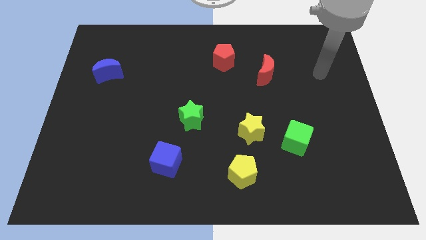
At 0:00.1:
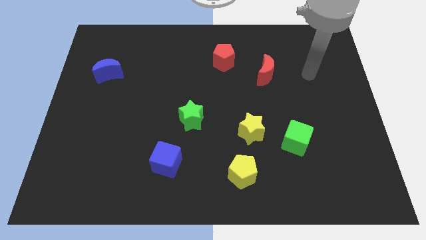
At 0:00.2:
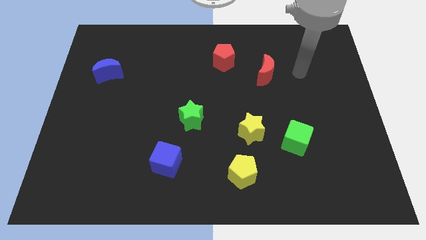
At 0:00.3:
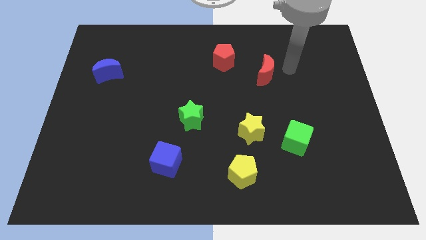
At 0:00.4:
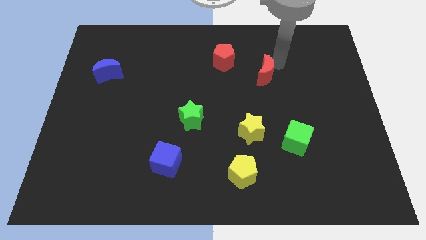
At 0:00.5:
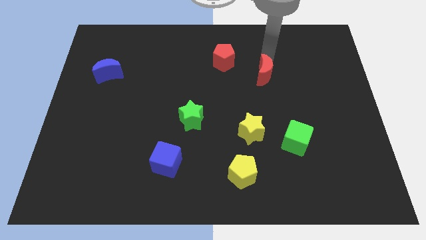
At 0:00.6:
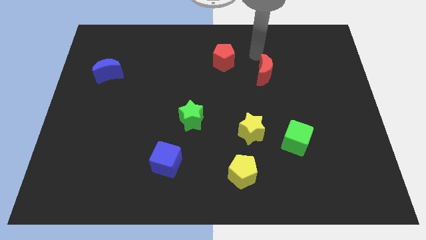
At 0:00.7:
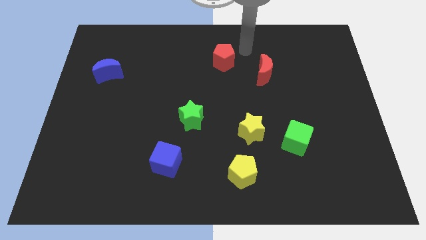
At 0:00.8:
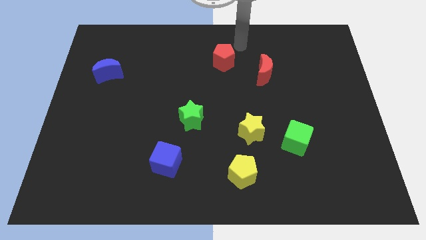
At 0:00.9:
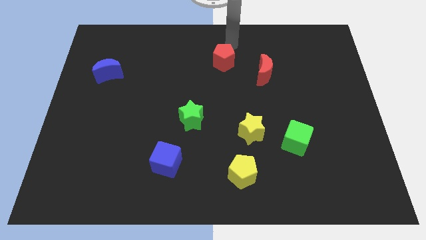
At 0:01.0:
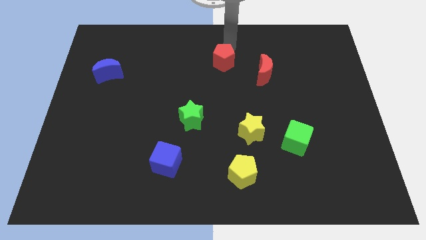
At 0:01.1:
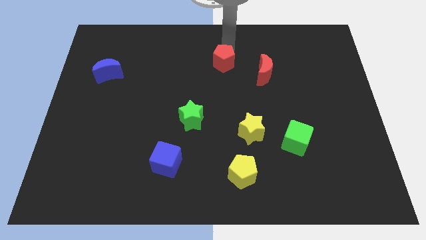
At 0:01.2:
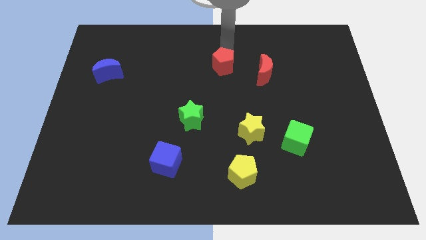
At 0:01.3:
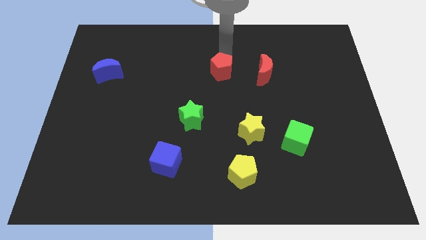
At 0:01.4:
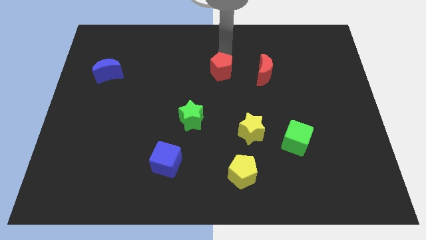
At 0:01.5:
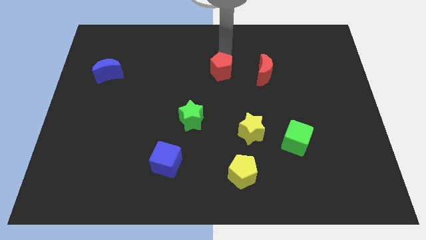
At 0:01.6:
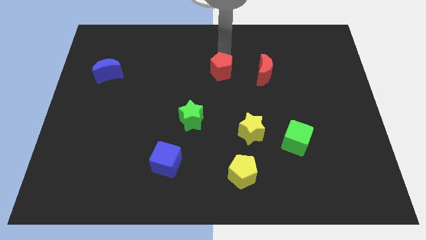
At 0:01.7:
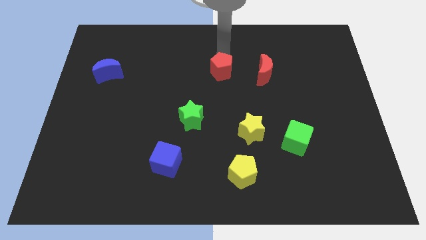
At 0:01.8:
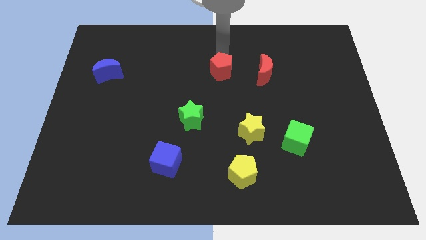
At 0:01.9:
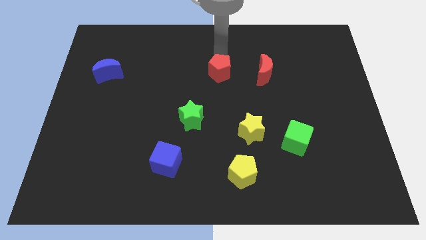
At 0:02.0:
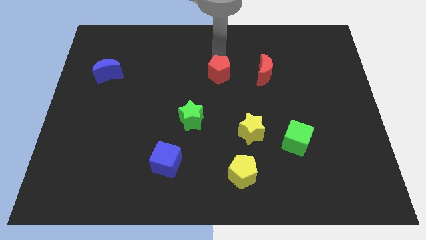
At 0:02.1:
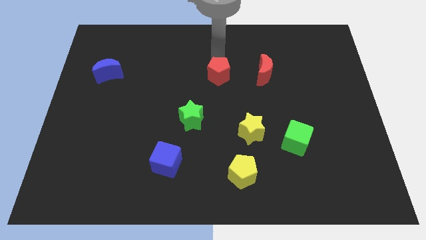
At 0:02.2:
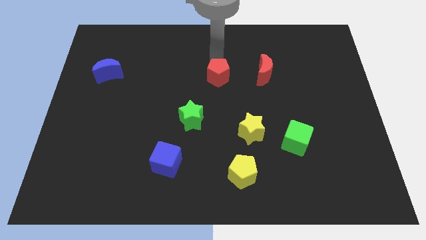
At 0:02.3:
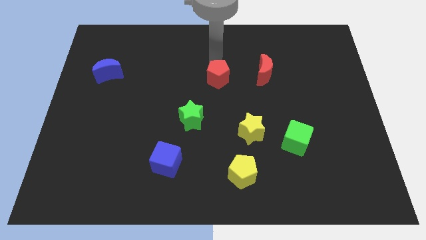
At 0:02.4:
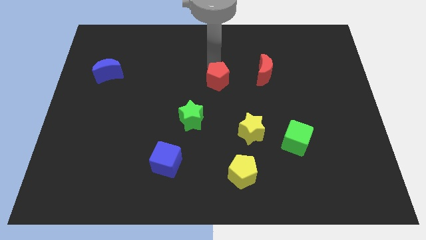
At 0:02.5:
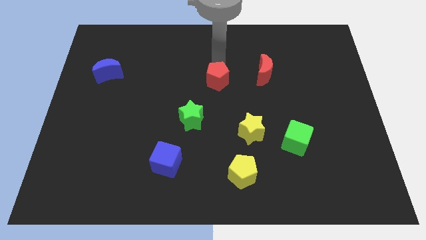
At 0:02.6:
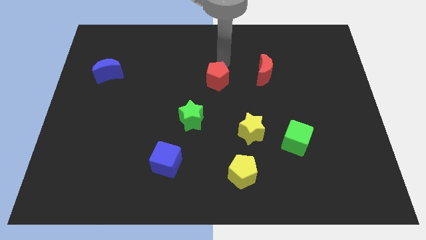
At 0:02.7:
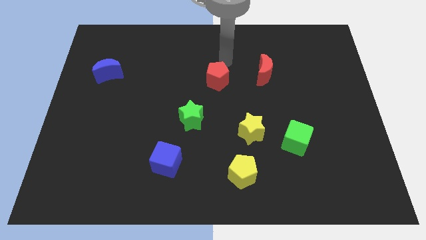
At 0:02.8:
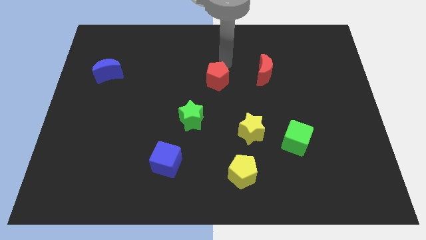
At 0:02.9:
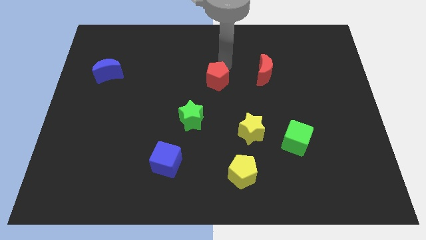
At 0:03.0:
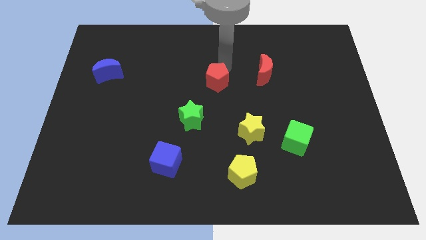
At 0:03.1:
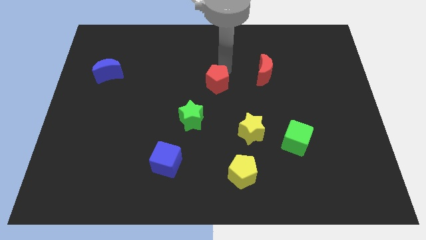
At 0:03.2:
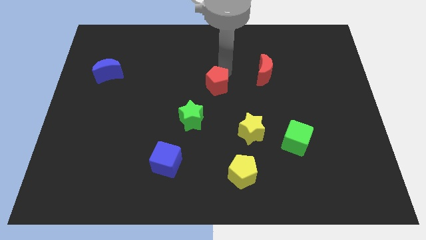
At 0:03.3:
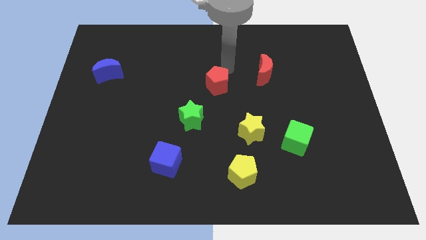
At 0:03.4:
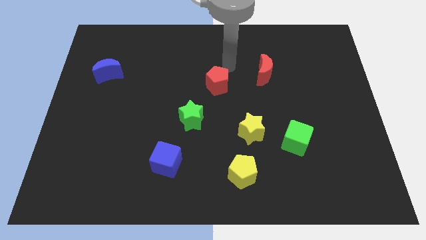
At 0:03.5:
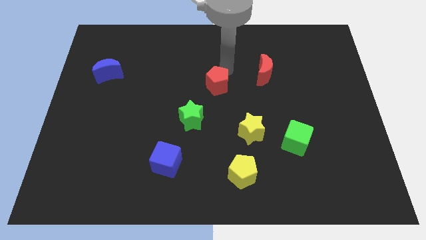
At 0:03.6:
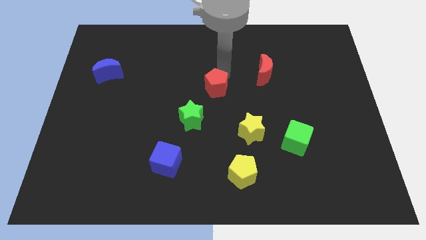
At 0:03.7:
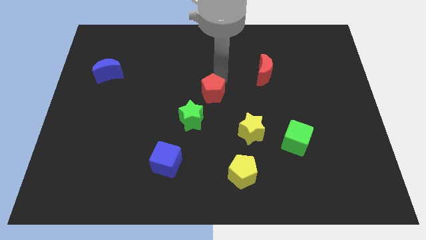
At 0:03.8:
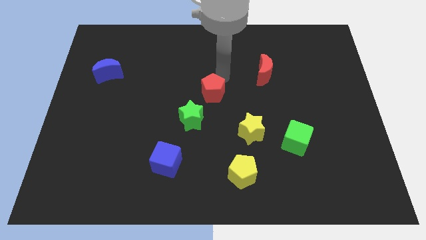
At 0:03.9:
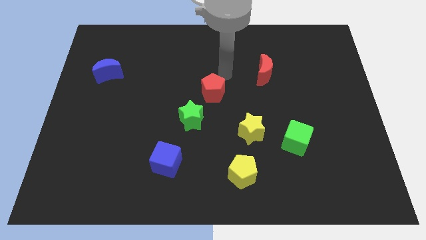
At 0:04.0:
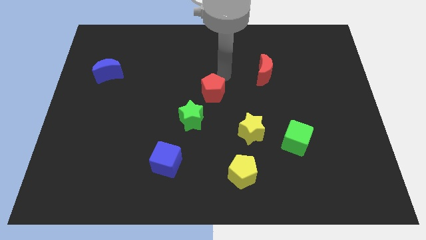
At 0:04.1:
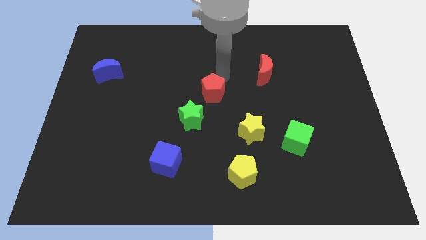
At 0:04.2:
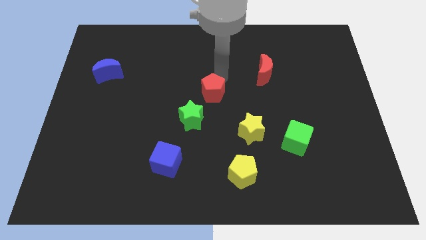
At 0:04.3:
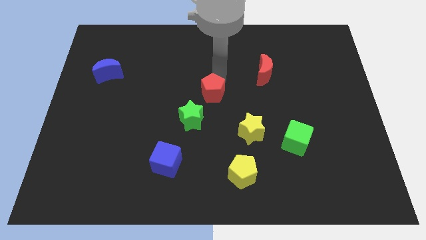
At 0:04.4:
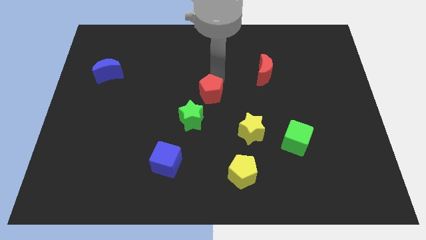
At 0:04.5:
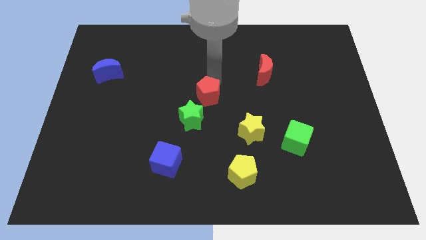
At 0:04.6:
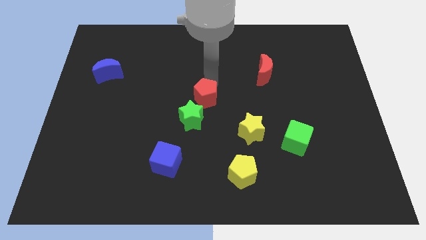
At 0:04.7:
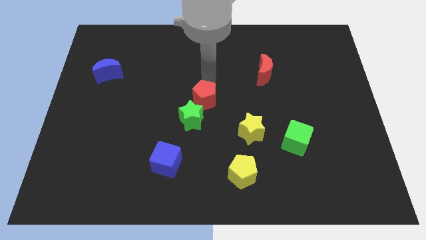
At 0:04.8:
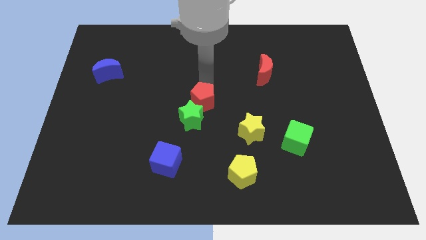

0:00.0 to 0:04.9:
push the red pentagon close to the green star

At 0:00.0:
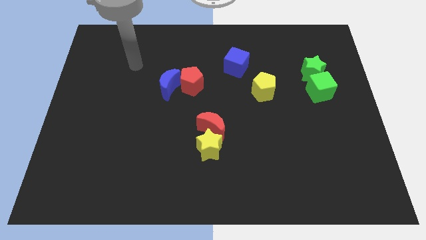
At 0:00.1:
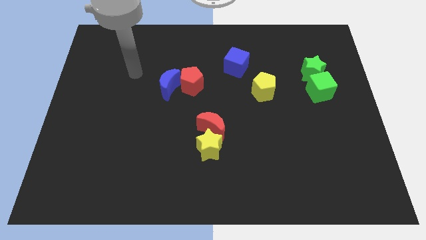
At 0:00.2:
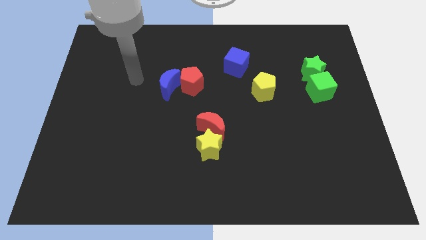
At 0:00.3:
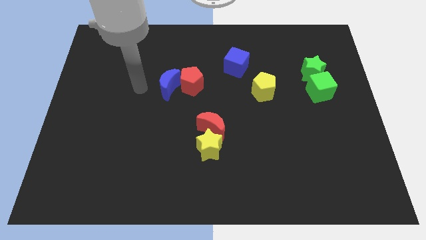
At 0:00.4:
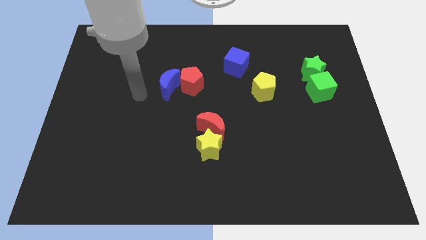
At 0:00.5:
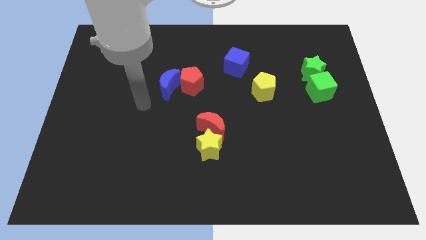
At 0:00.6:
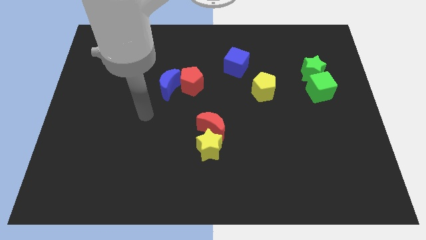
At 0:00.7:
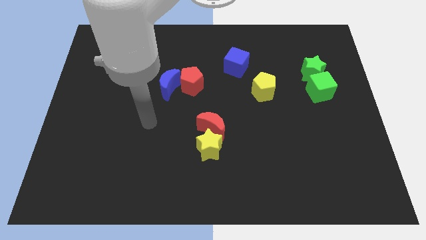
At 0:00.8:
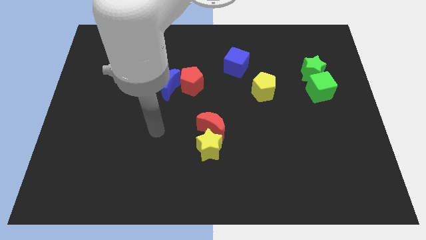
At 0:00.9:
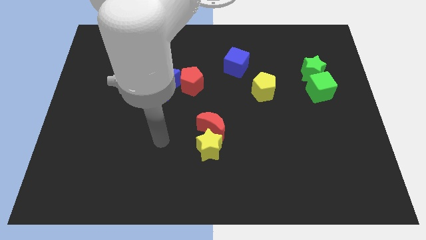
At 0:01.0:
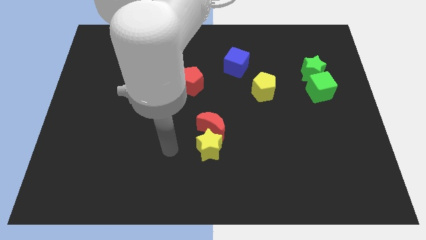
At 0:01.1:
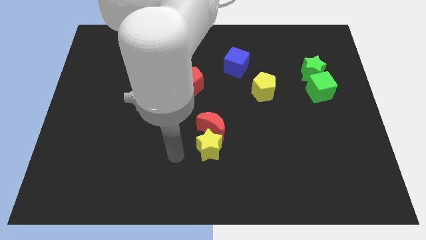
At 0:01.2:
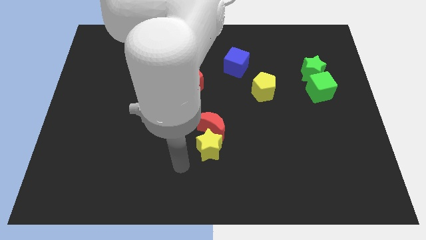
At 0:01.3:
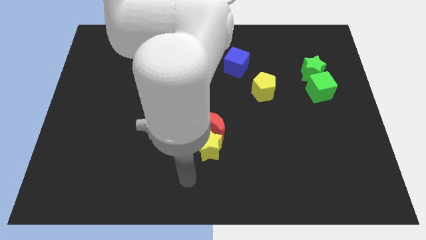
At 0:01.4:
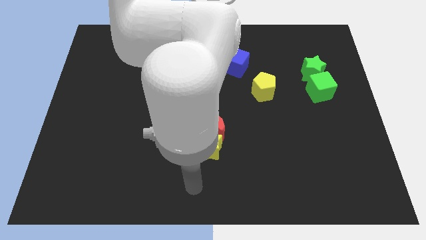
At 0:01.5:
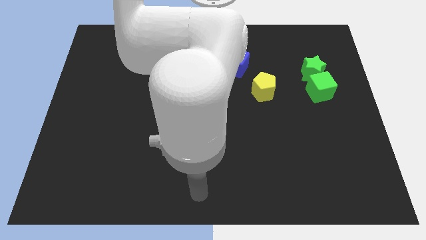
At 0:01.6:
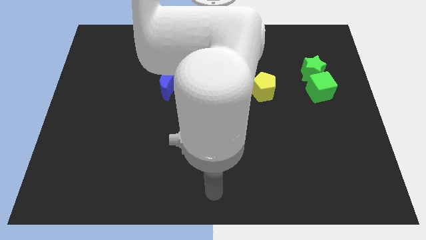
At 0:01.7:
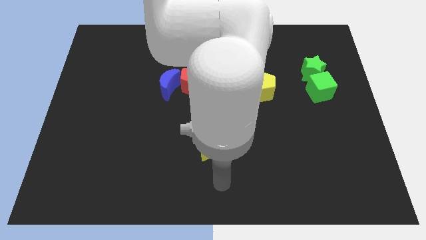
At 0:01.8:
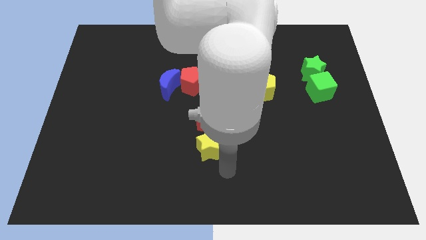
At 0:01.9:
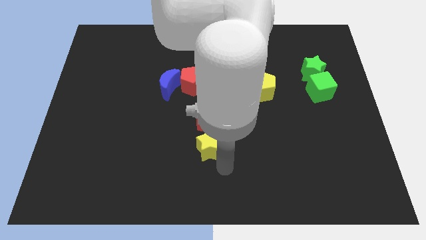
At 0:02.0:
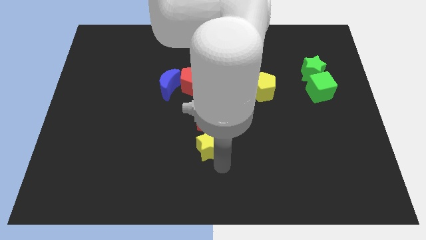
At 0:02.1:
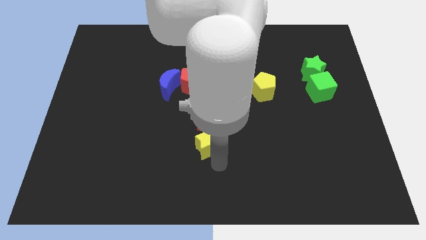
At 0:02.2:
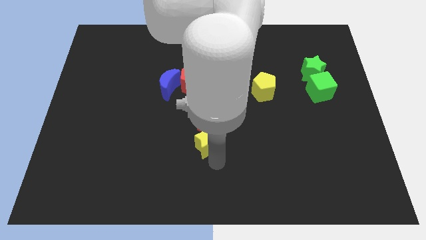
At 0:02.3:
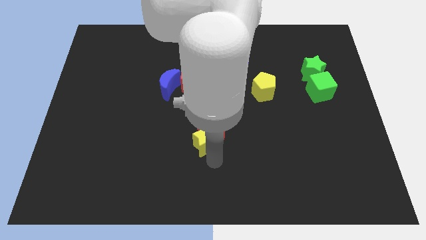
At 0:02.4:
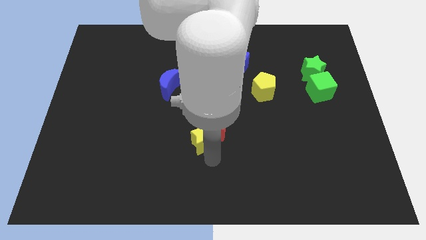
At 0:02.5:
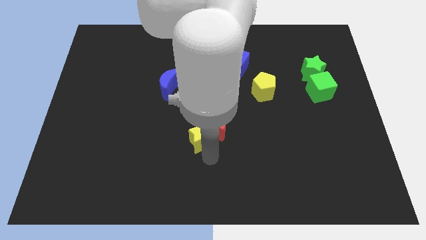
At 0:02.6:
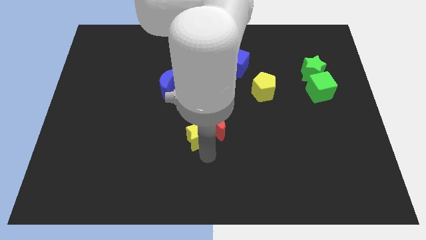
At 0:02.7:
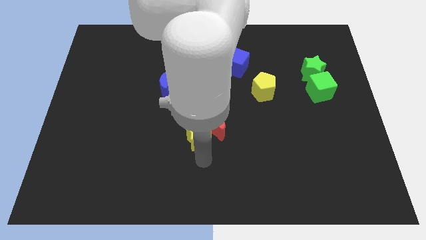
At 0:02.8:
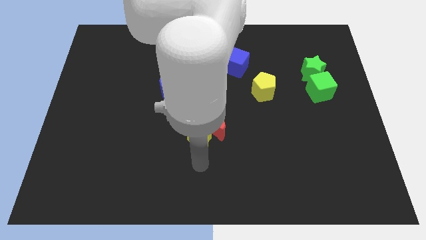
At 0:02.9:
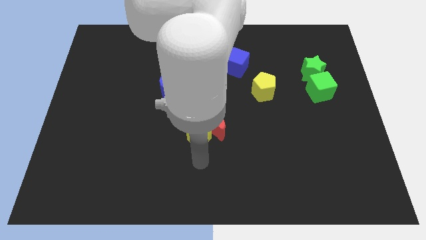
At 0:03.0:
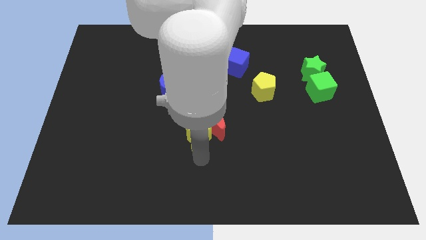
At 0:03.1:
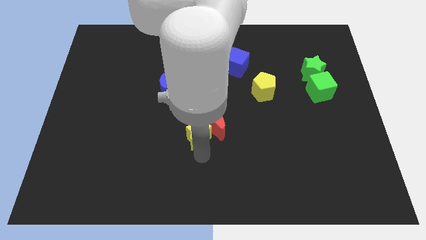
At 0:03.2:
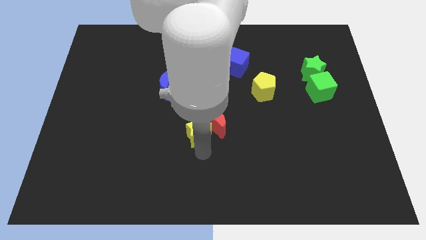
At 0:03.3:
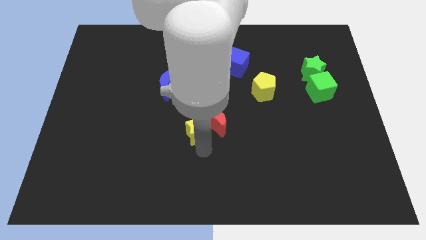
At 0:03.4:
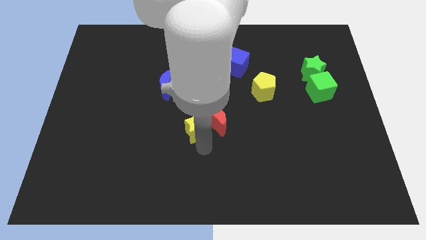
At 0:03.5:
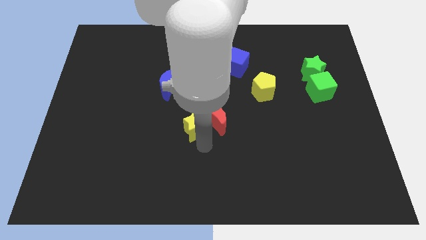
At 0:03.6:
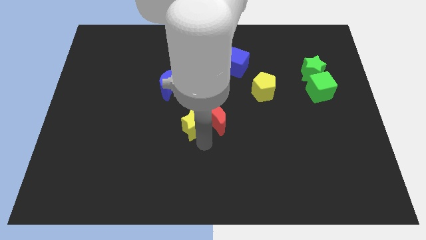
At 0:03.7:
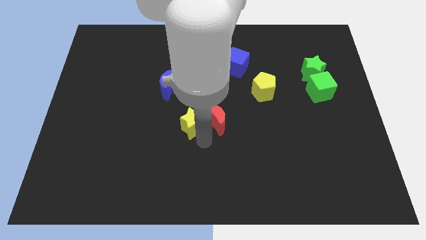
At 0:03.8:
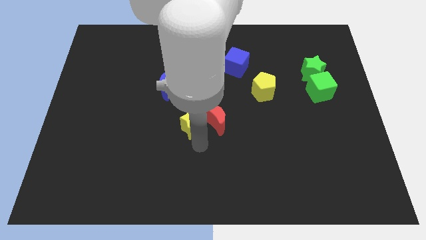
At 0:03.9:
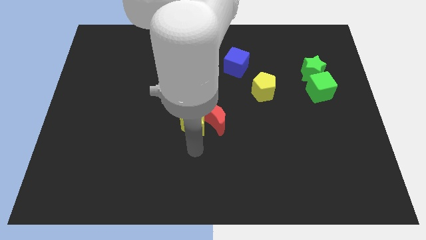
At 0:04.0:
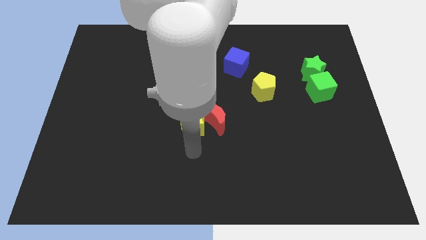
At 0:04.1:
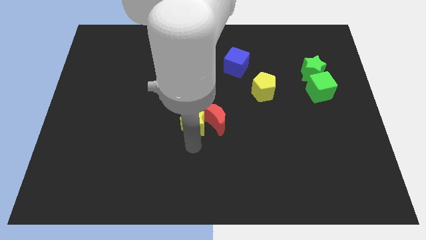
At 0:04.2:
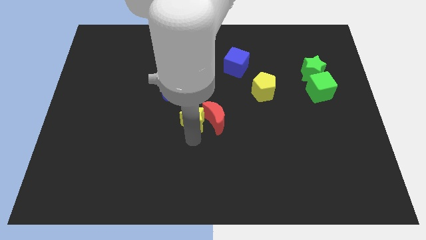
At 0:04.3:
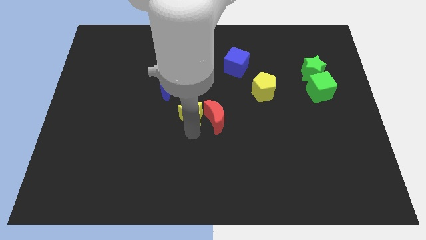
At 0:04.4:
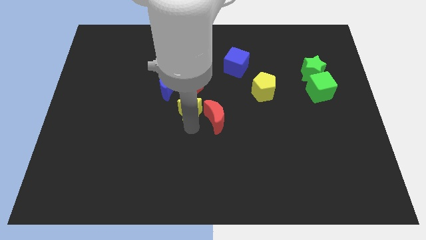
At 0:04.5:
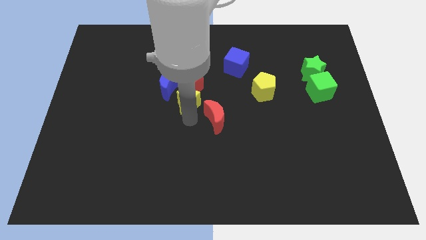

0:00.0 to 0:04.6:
slide the yellow star to the red pentagon
